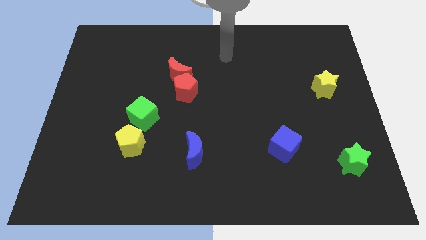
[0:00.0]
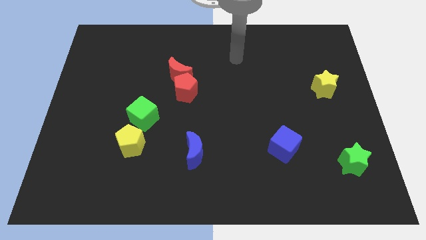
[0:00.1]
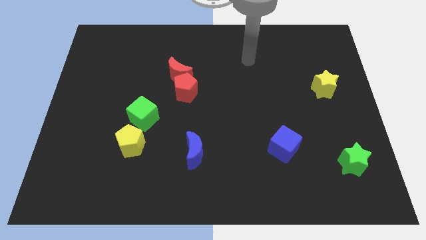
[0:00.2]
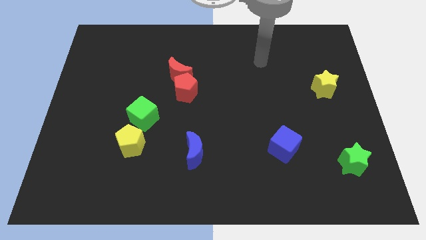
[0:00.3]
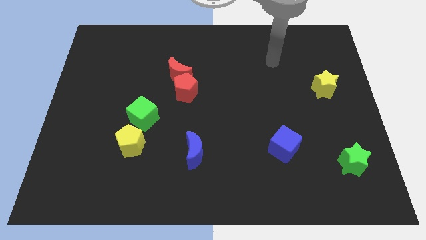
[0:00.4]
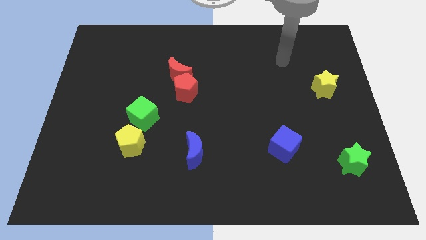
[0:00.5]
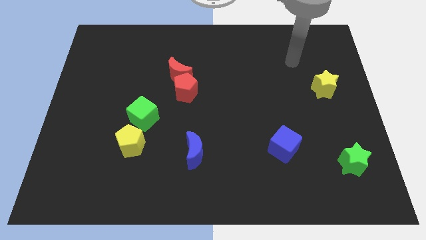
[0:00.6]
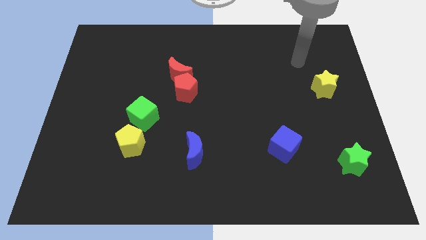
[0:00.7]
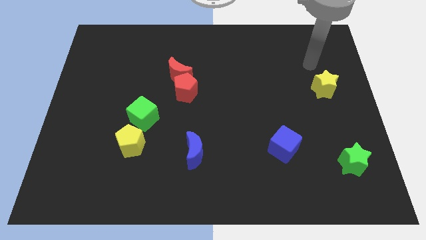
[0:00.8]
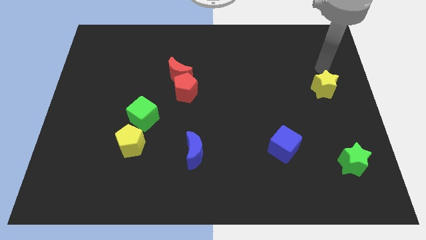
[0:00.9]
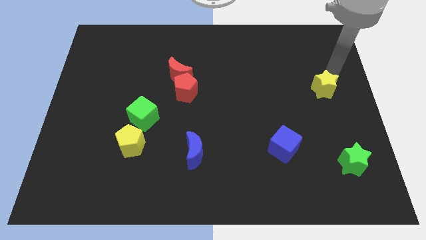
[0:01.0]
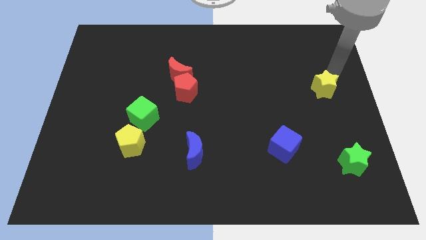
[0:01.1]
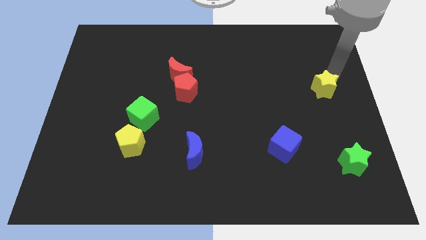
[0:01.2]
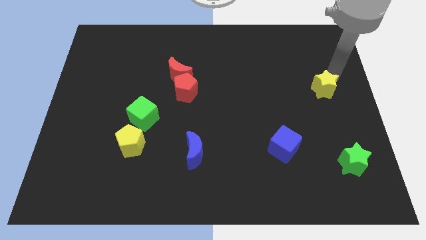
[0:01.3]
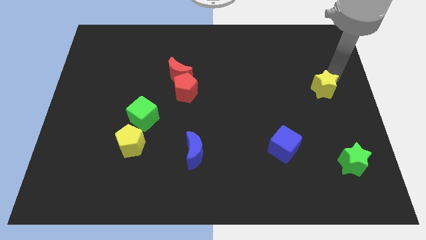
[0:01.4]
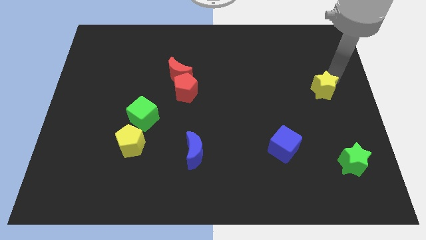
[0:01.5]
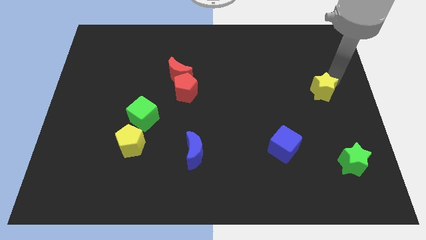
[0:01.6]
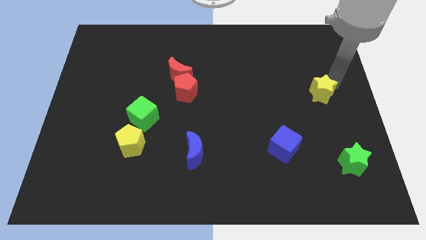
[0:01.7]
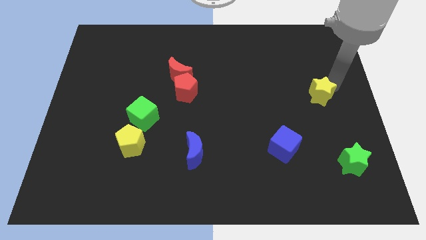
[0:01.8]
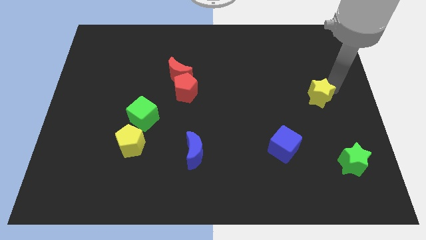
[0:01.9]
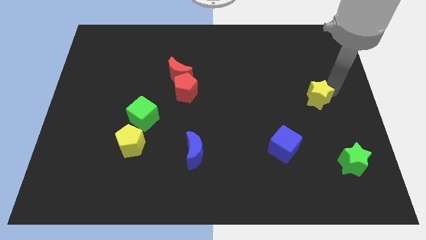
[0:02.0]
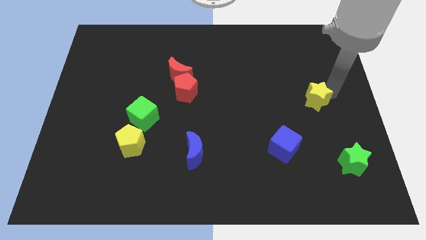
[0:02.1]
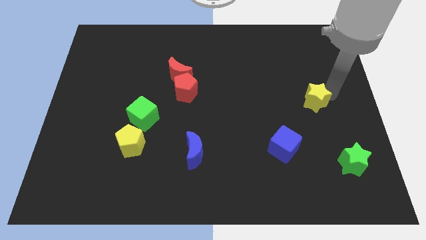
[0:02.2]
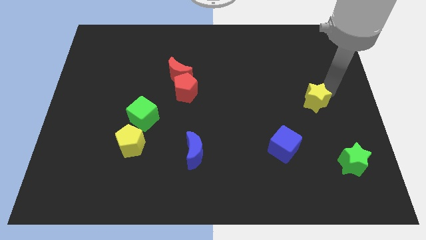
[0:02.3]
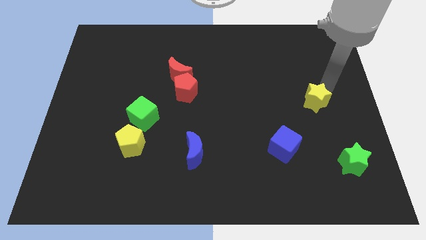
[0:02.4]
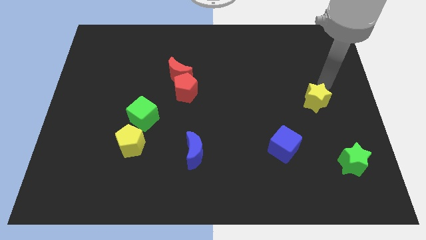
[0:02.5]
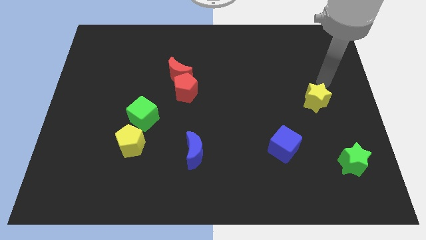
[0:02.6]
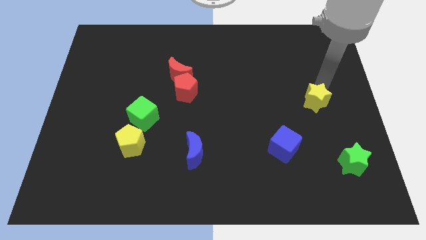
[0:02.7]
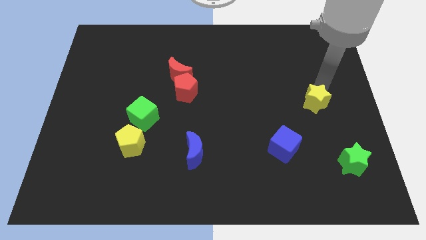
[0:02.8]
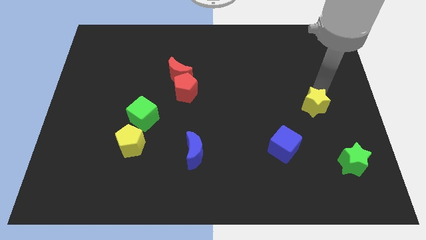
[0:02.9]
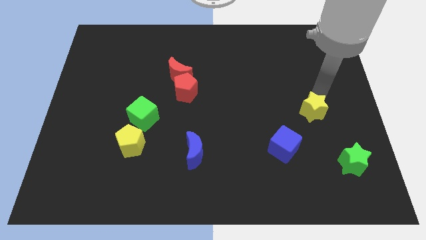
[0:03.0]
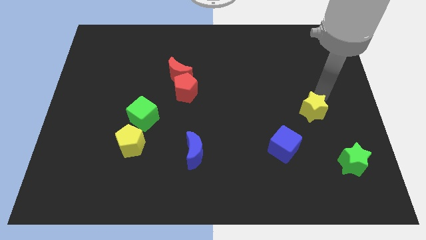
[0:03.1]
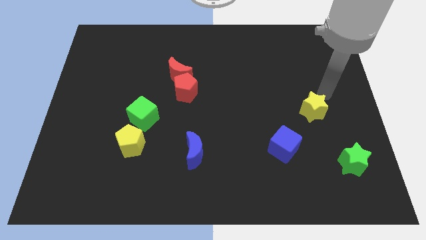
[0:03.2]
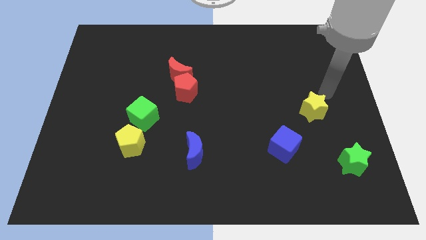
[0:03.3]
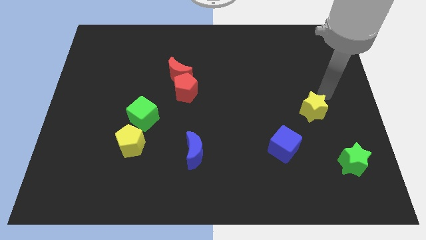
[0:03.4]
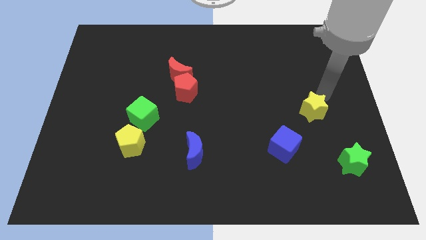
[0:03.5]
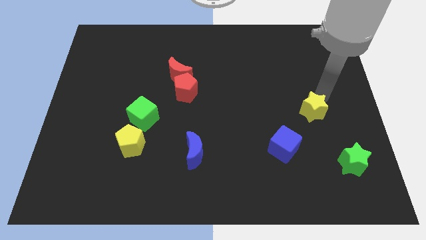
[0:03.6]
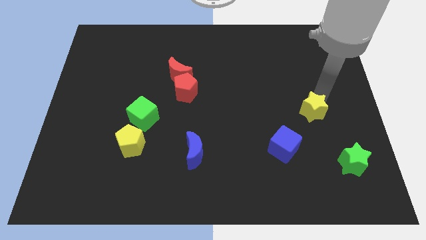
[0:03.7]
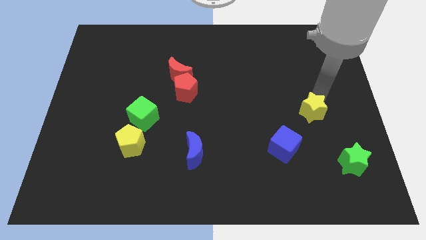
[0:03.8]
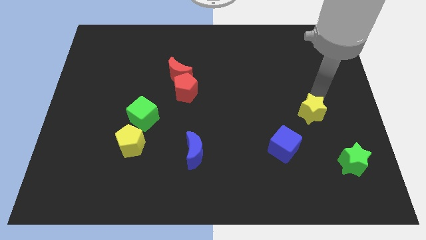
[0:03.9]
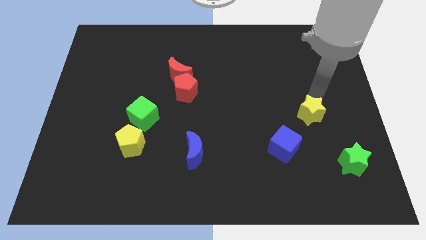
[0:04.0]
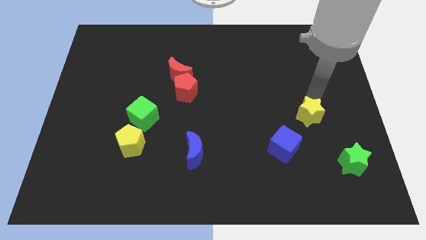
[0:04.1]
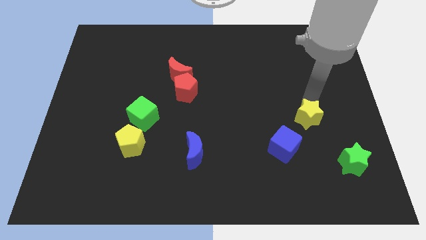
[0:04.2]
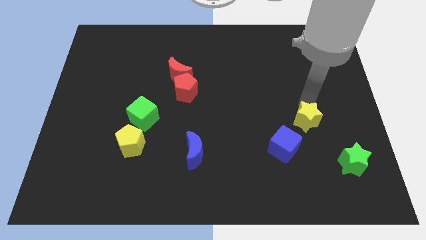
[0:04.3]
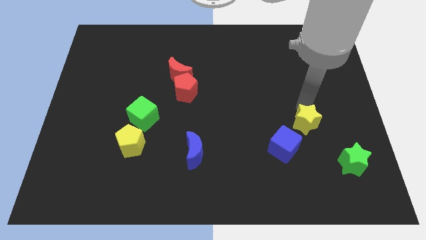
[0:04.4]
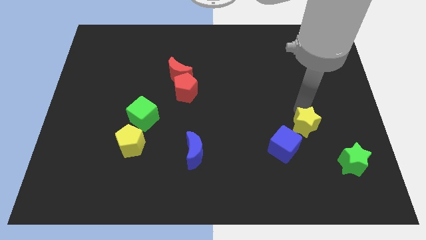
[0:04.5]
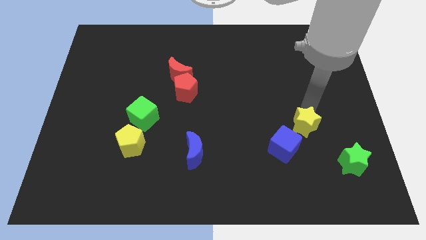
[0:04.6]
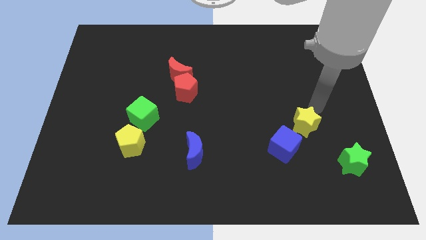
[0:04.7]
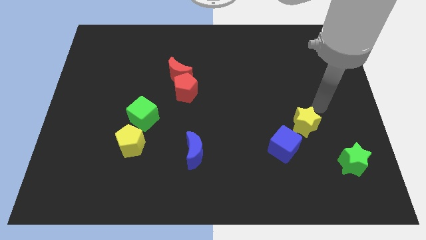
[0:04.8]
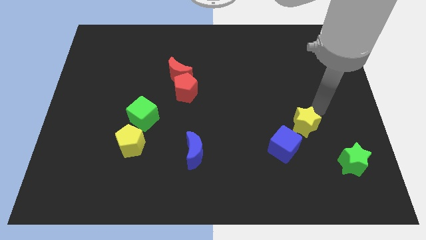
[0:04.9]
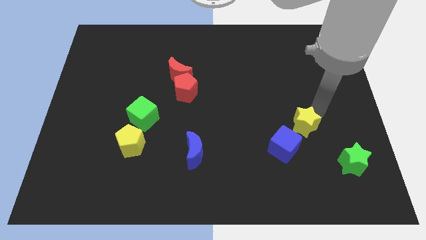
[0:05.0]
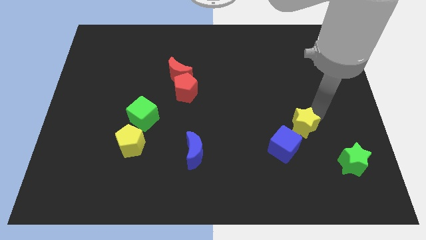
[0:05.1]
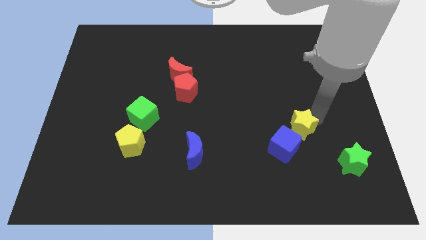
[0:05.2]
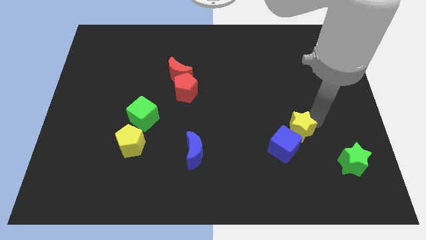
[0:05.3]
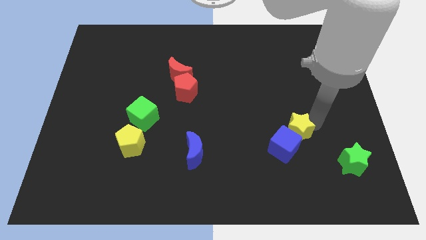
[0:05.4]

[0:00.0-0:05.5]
move the yellow star next to the blue cube

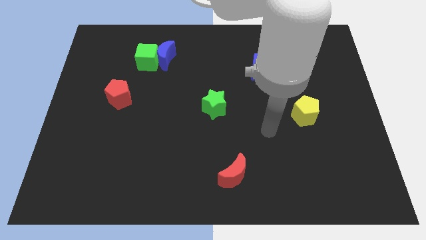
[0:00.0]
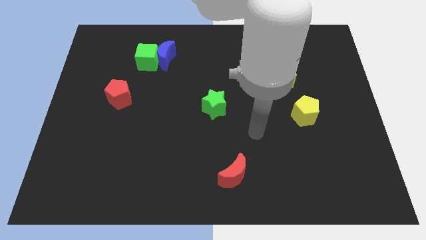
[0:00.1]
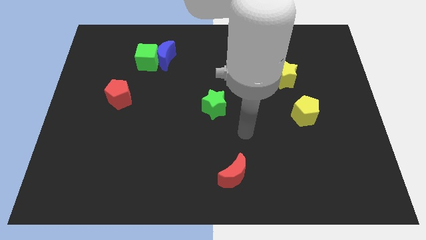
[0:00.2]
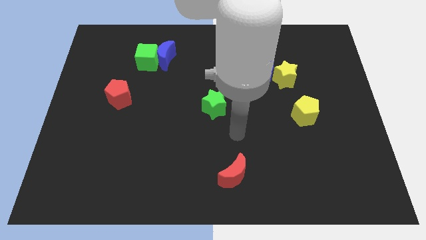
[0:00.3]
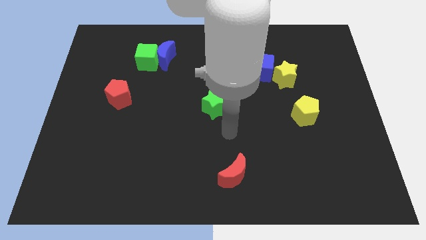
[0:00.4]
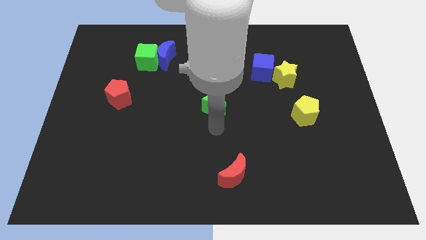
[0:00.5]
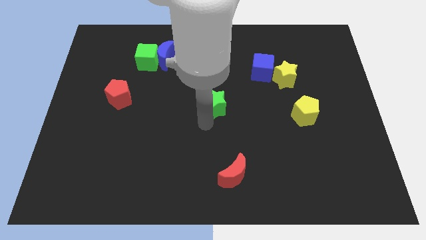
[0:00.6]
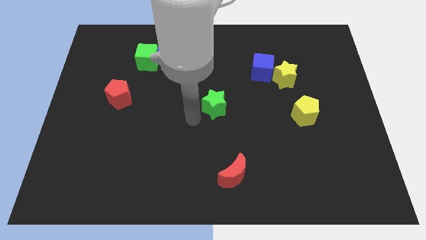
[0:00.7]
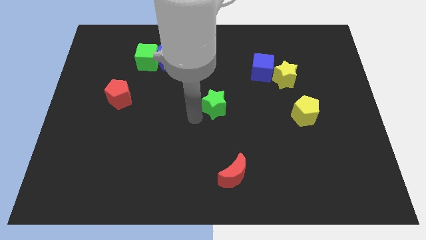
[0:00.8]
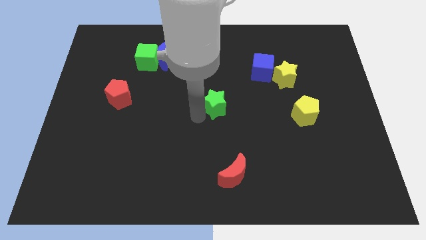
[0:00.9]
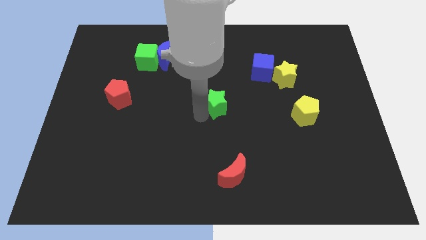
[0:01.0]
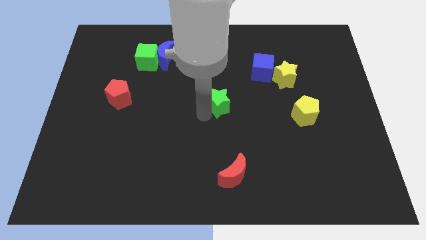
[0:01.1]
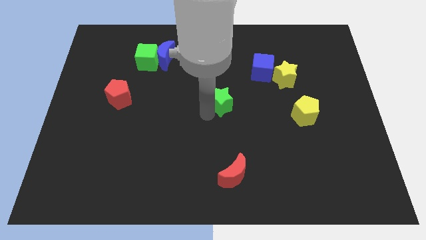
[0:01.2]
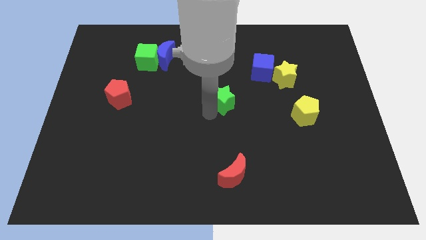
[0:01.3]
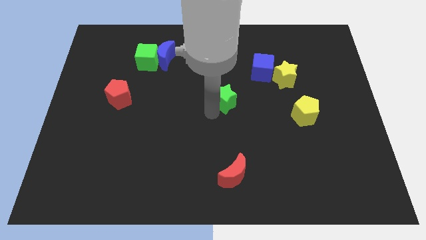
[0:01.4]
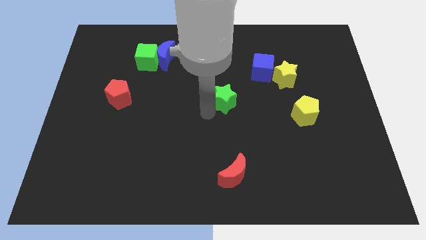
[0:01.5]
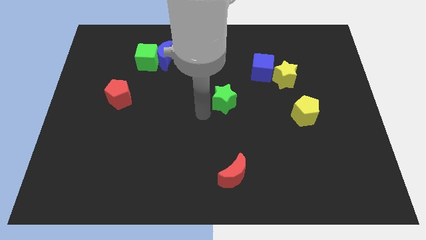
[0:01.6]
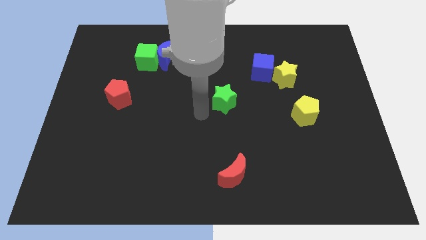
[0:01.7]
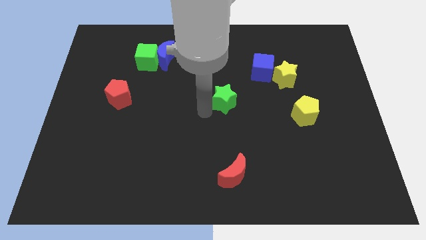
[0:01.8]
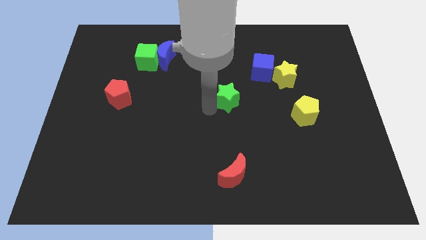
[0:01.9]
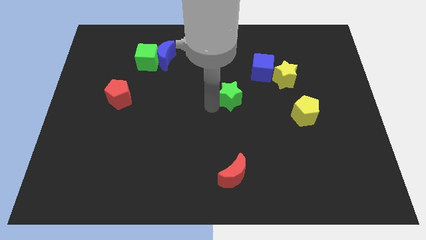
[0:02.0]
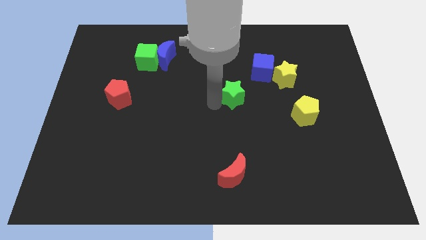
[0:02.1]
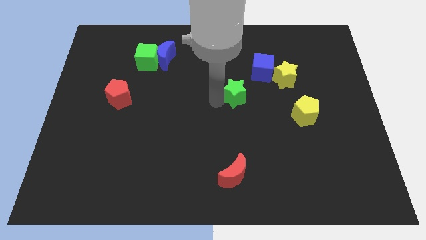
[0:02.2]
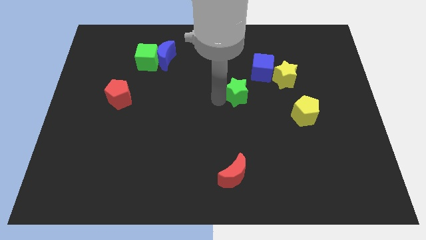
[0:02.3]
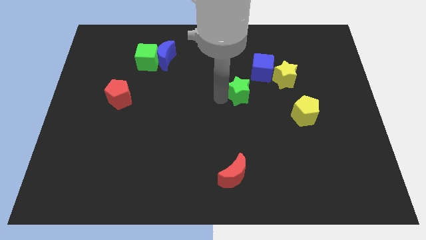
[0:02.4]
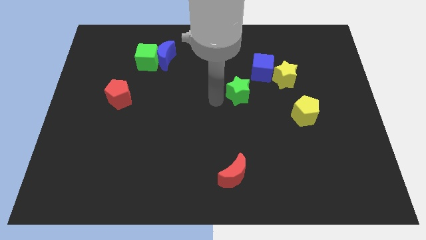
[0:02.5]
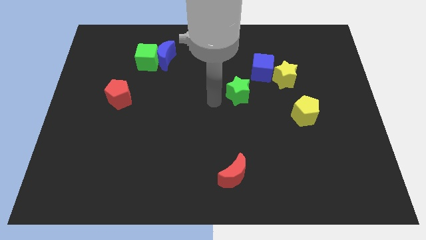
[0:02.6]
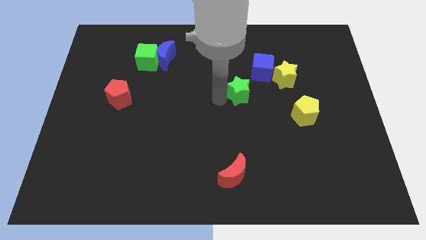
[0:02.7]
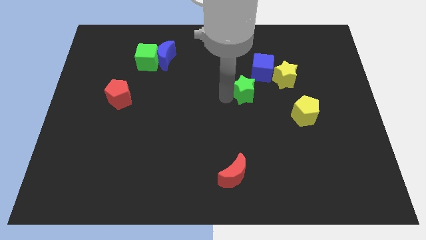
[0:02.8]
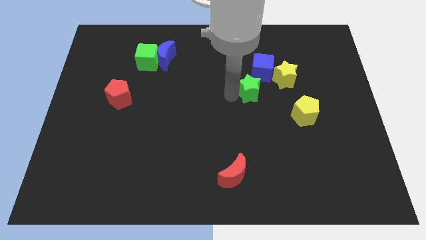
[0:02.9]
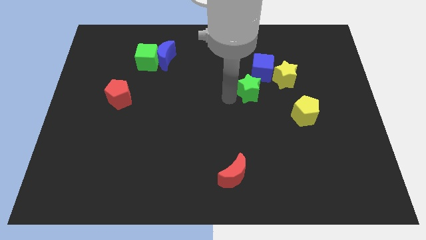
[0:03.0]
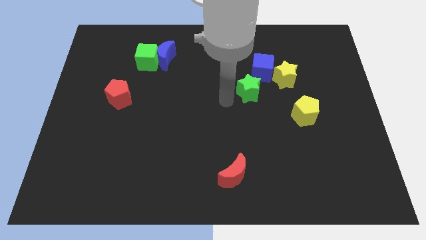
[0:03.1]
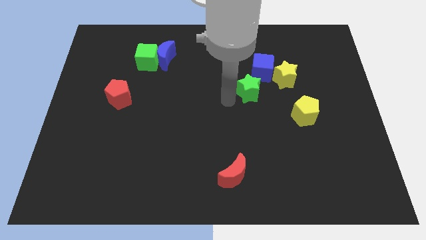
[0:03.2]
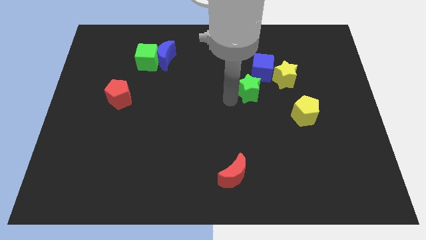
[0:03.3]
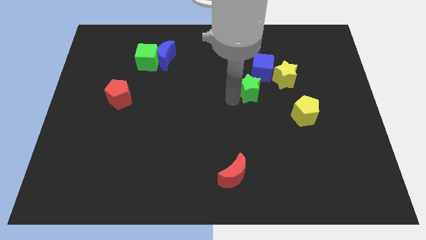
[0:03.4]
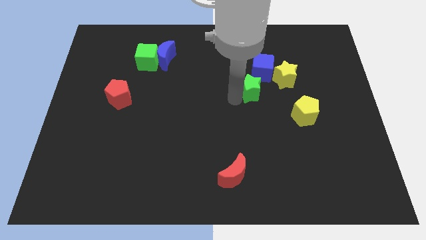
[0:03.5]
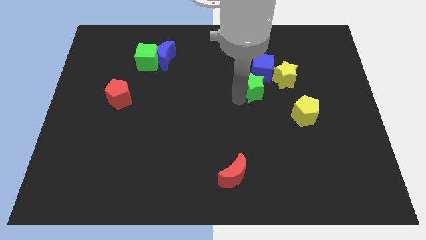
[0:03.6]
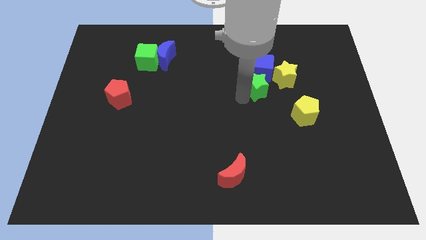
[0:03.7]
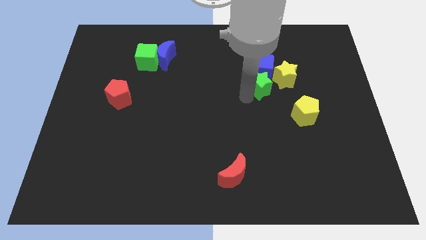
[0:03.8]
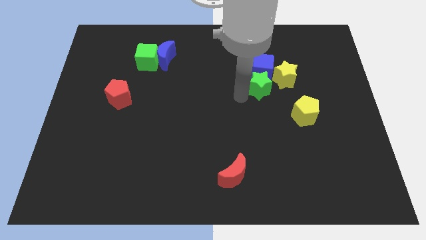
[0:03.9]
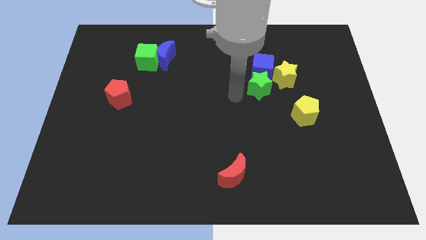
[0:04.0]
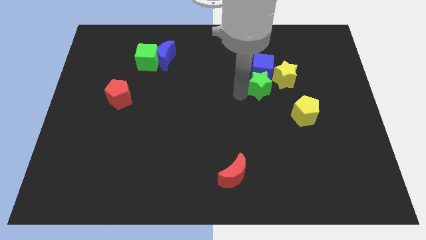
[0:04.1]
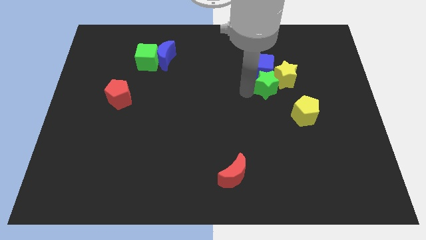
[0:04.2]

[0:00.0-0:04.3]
move the green star close to the yellow star
